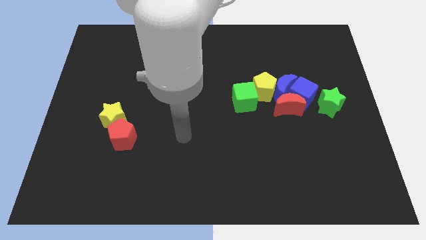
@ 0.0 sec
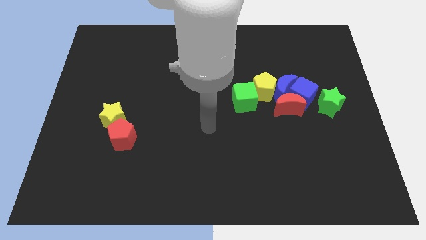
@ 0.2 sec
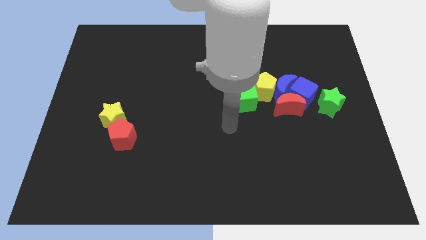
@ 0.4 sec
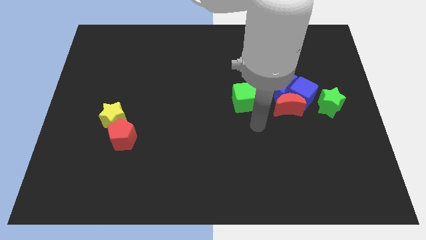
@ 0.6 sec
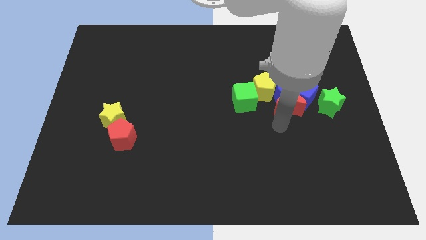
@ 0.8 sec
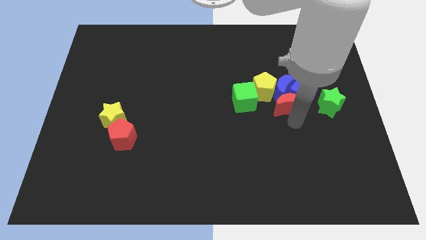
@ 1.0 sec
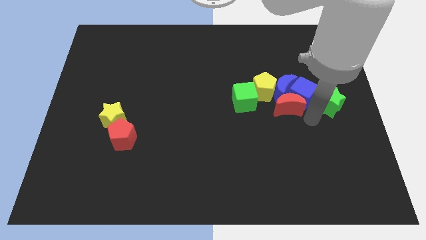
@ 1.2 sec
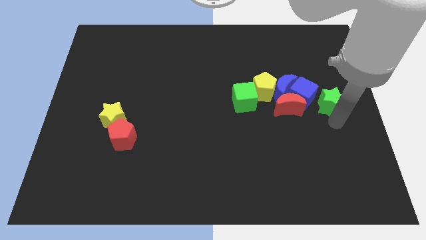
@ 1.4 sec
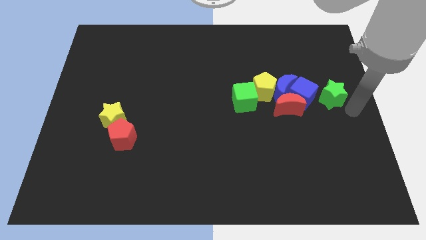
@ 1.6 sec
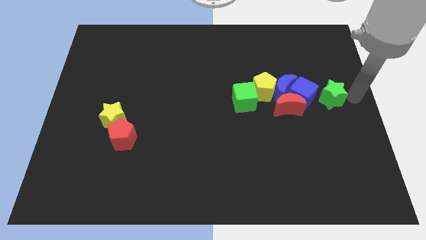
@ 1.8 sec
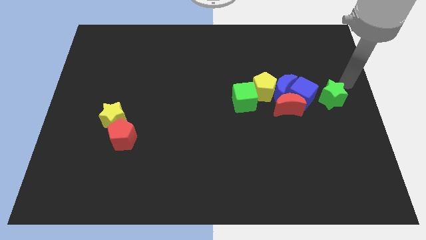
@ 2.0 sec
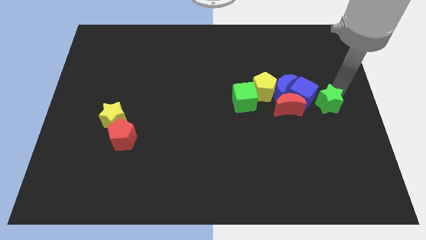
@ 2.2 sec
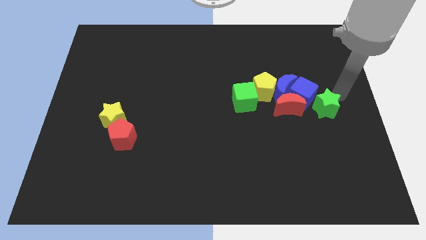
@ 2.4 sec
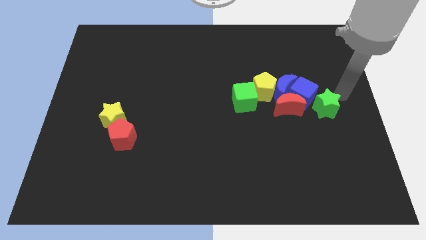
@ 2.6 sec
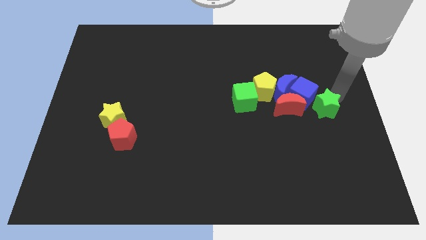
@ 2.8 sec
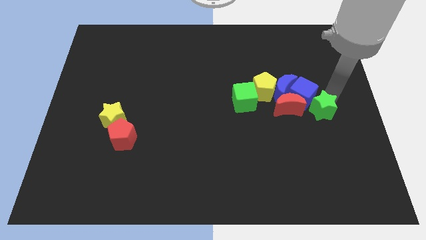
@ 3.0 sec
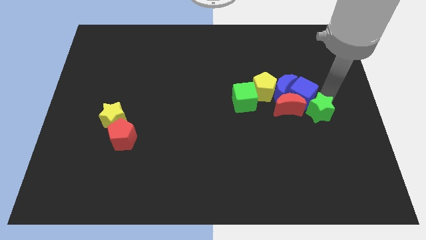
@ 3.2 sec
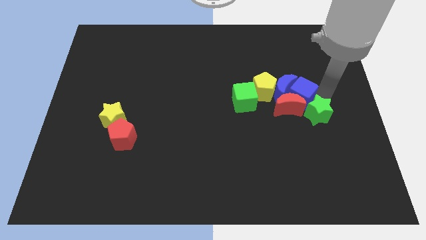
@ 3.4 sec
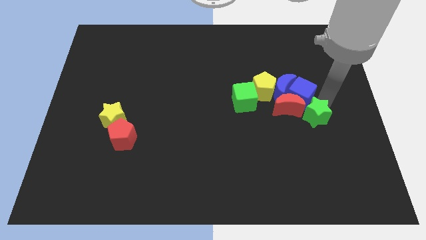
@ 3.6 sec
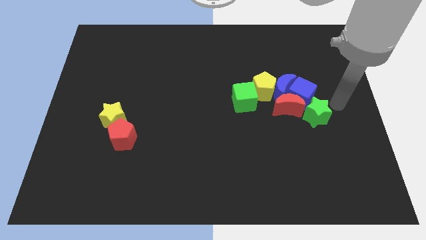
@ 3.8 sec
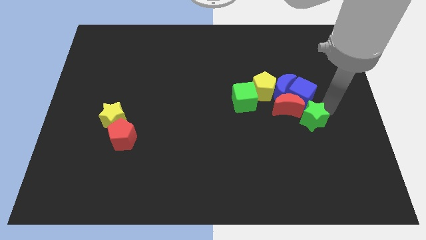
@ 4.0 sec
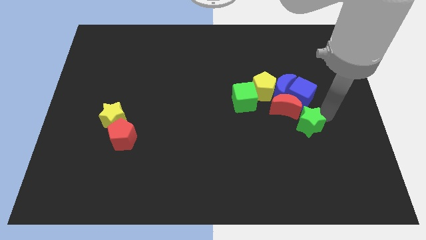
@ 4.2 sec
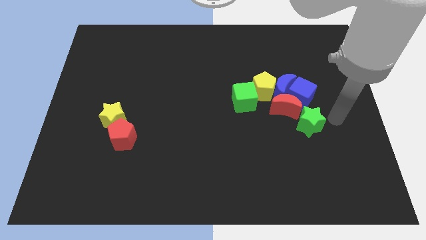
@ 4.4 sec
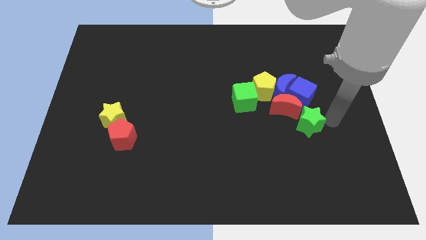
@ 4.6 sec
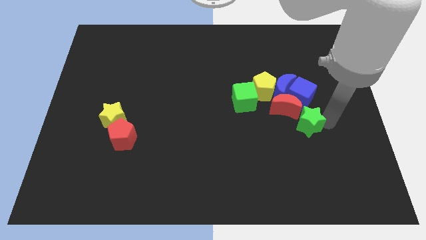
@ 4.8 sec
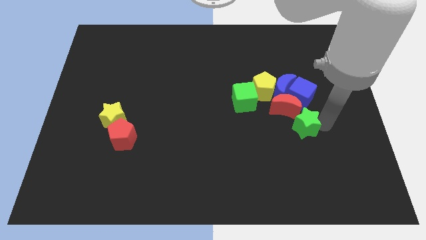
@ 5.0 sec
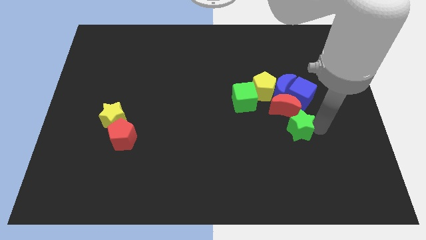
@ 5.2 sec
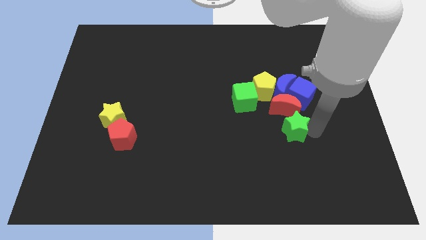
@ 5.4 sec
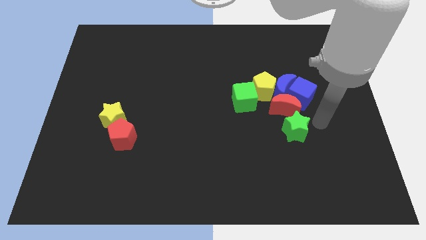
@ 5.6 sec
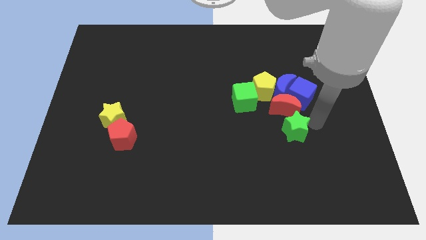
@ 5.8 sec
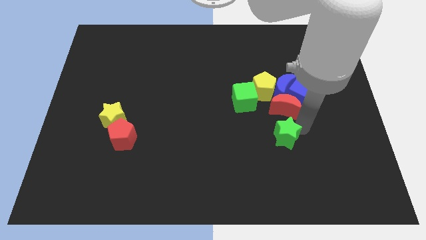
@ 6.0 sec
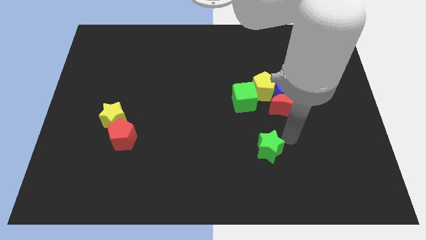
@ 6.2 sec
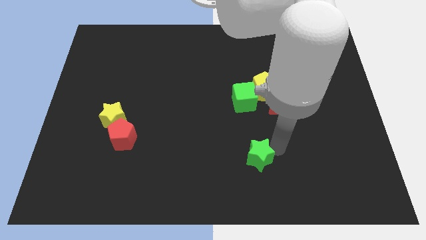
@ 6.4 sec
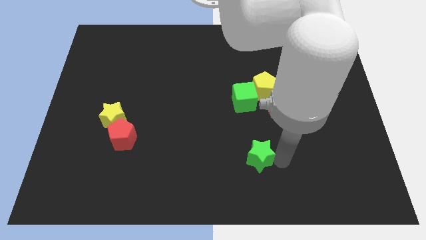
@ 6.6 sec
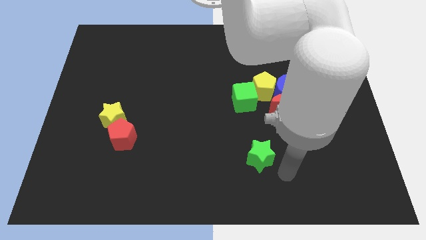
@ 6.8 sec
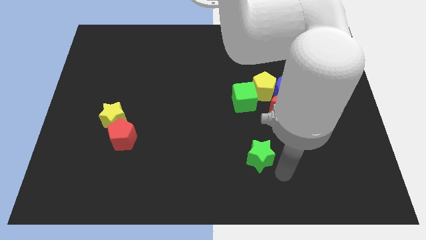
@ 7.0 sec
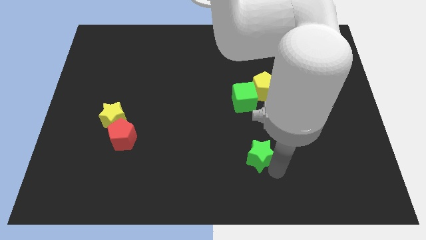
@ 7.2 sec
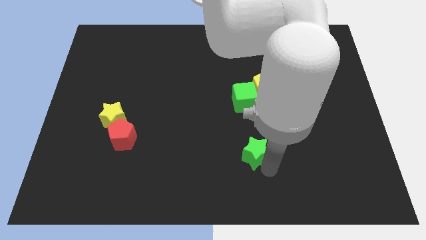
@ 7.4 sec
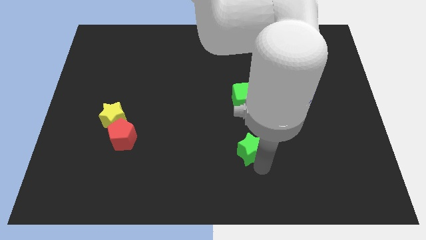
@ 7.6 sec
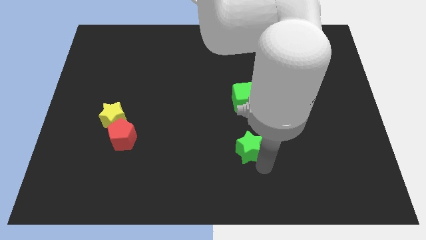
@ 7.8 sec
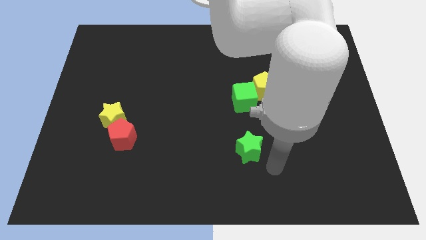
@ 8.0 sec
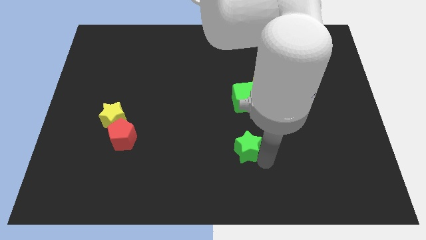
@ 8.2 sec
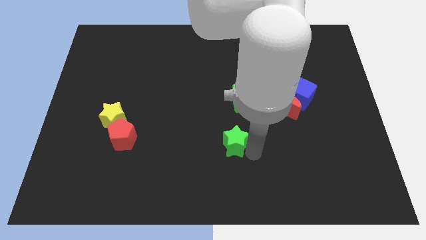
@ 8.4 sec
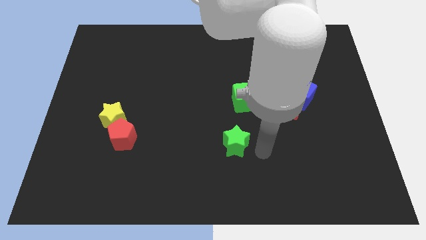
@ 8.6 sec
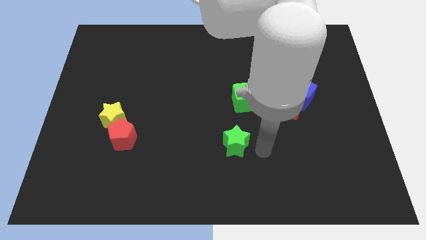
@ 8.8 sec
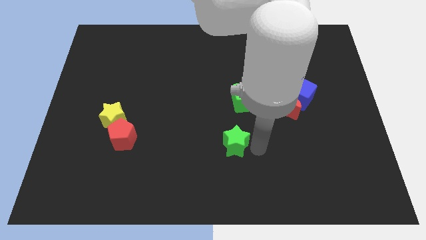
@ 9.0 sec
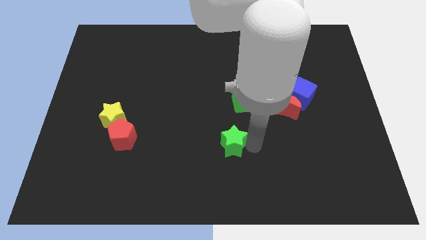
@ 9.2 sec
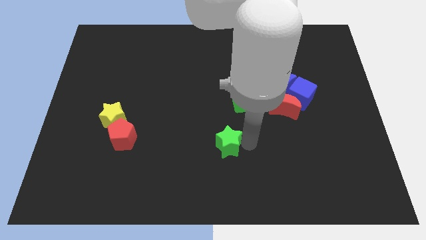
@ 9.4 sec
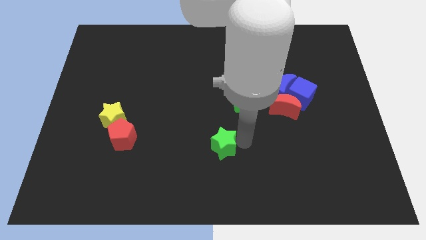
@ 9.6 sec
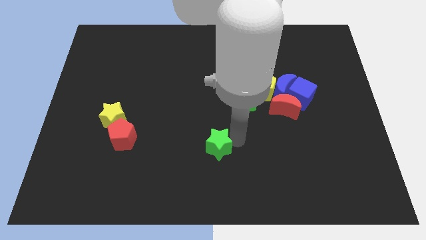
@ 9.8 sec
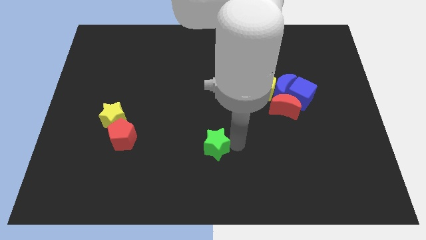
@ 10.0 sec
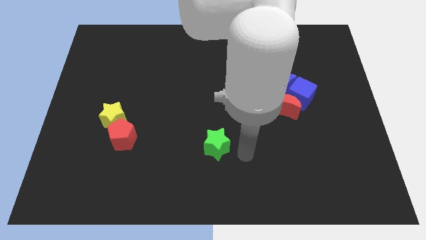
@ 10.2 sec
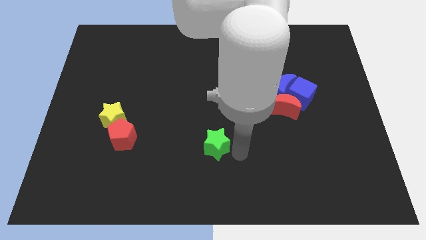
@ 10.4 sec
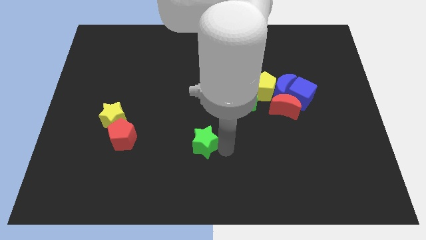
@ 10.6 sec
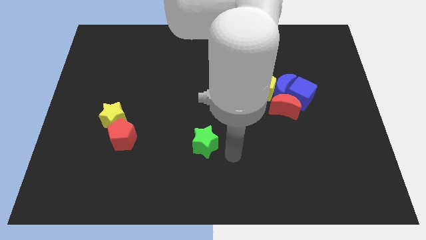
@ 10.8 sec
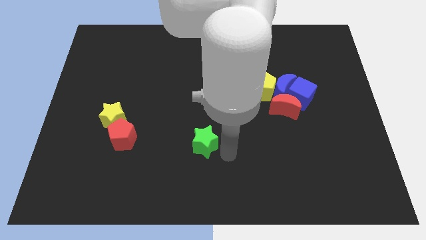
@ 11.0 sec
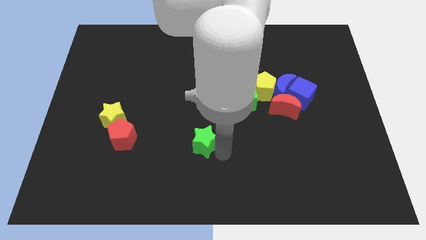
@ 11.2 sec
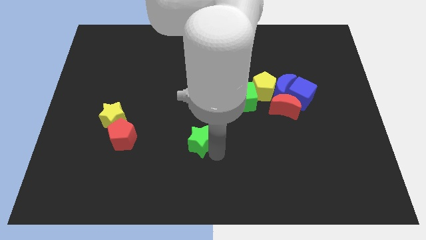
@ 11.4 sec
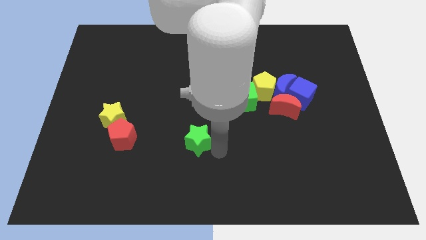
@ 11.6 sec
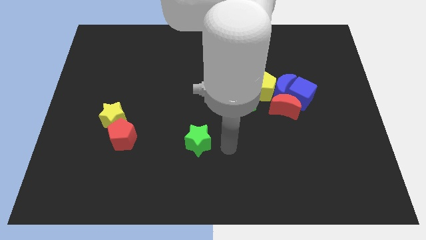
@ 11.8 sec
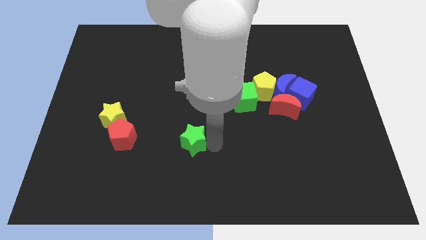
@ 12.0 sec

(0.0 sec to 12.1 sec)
move the green star to the right side of the red pentagon

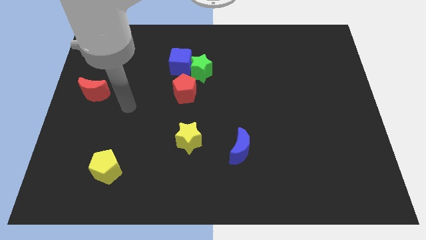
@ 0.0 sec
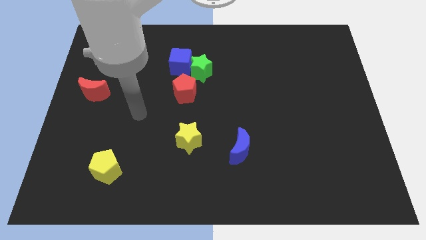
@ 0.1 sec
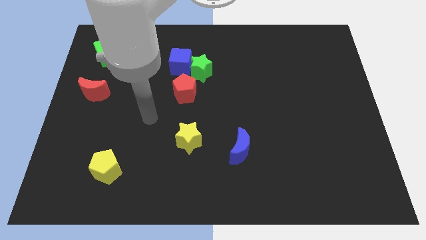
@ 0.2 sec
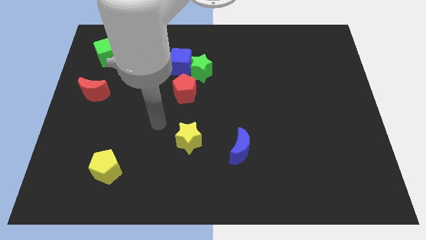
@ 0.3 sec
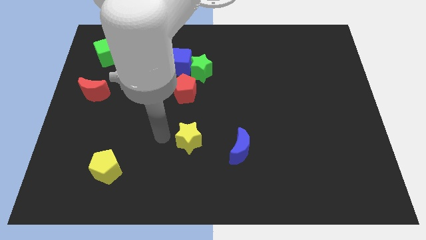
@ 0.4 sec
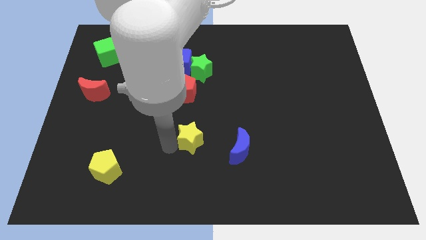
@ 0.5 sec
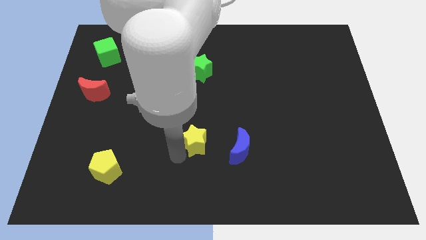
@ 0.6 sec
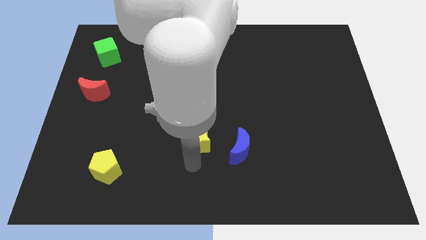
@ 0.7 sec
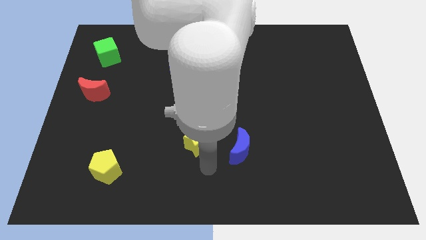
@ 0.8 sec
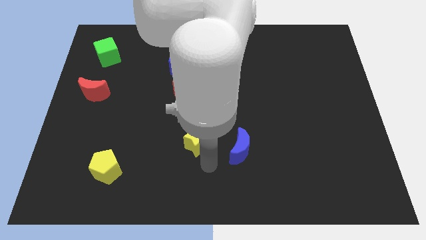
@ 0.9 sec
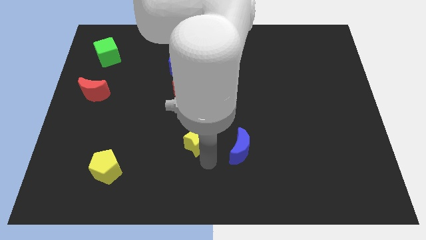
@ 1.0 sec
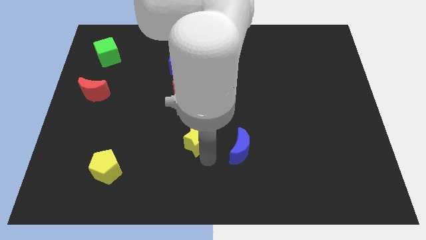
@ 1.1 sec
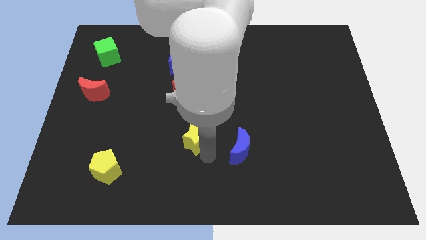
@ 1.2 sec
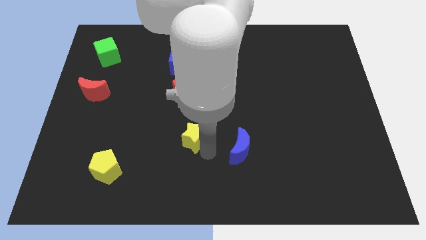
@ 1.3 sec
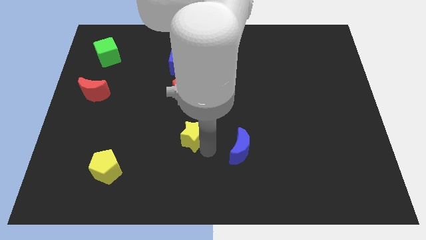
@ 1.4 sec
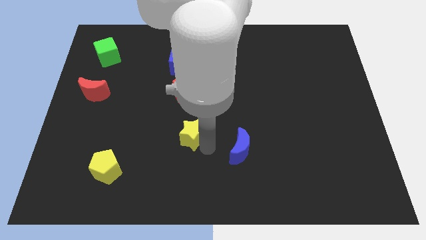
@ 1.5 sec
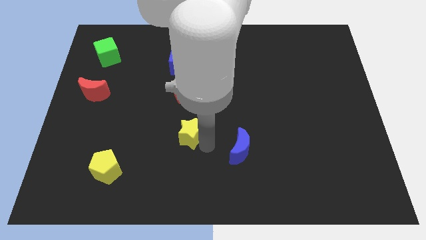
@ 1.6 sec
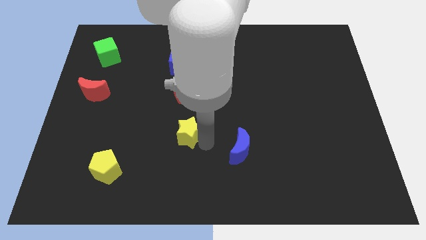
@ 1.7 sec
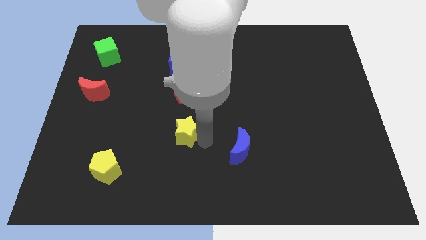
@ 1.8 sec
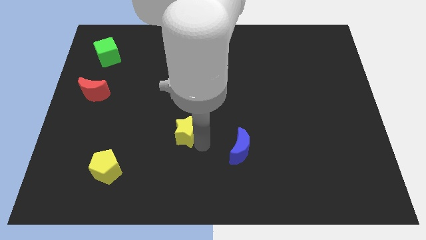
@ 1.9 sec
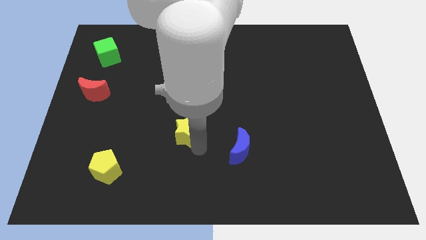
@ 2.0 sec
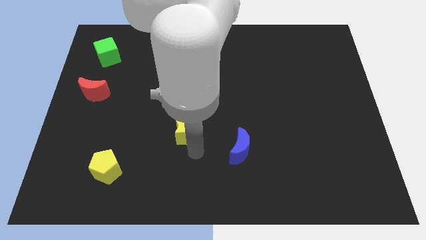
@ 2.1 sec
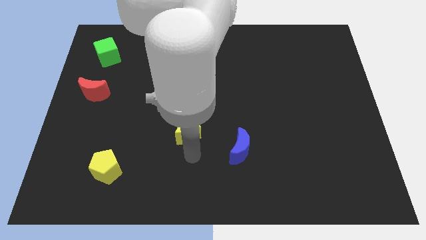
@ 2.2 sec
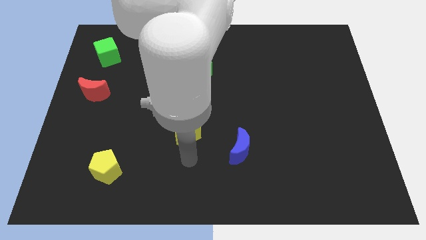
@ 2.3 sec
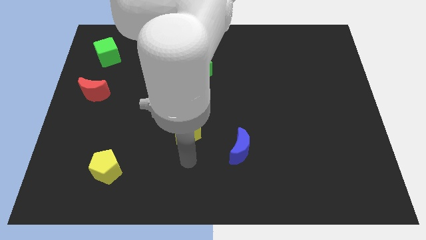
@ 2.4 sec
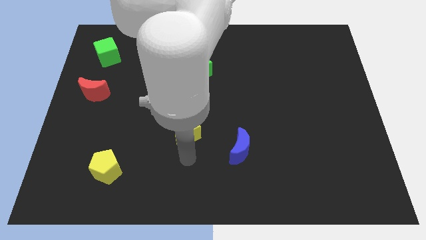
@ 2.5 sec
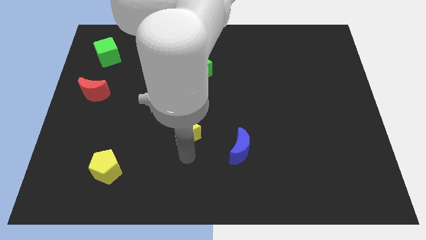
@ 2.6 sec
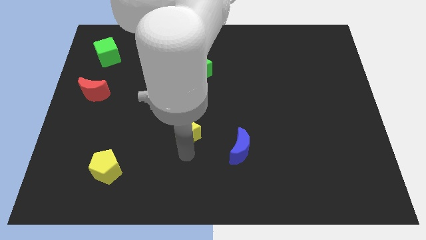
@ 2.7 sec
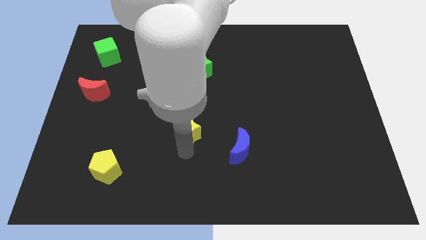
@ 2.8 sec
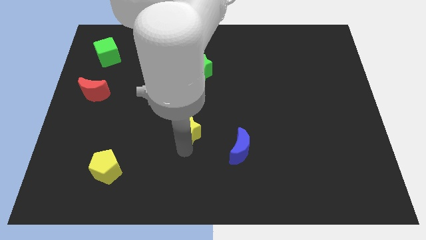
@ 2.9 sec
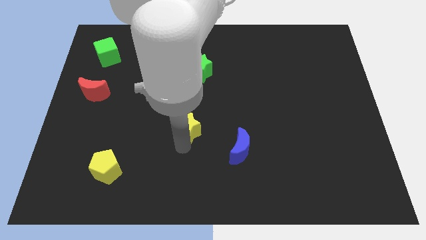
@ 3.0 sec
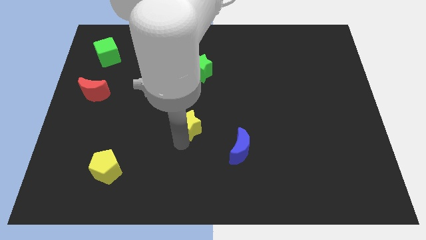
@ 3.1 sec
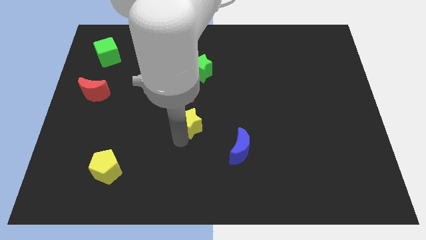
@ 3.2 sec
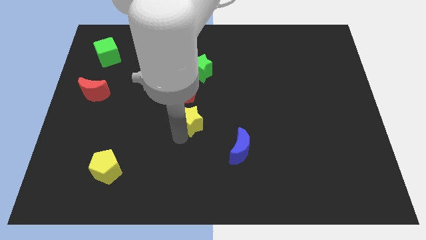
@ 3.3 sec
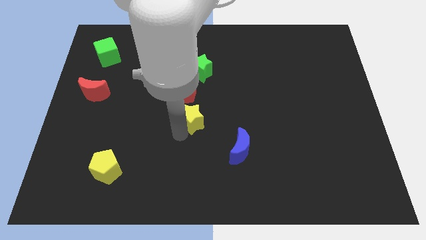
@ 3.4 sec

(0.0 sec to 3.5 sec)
put the yellow star below the green star
